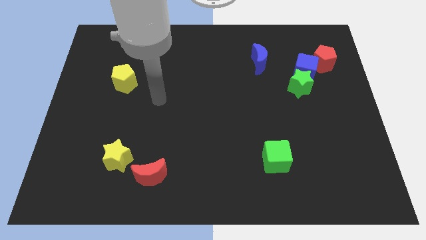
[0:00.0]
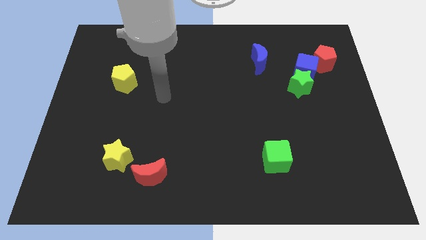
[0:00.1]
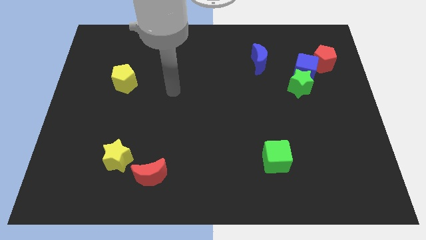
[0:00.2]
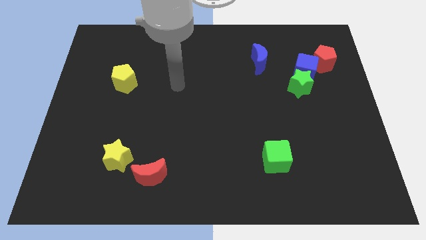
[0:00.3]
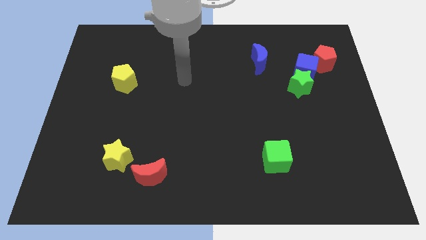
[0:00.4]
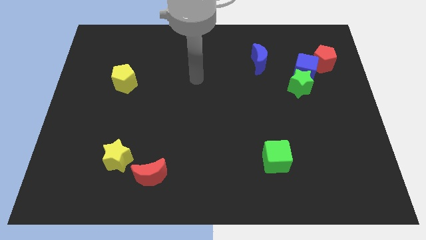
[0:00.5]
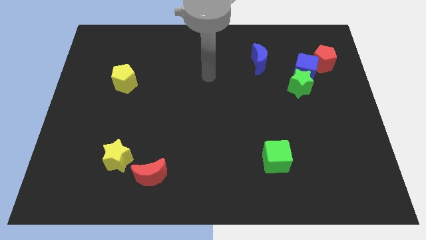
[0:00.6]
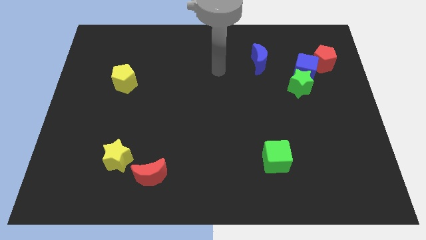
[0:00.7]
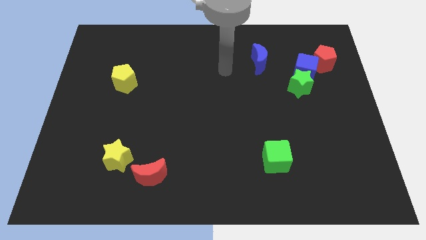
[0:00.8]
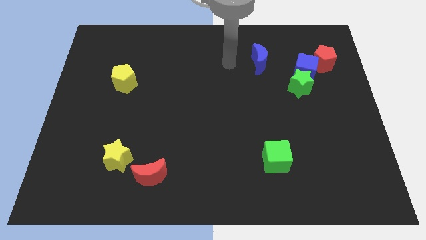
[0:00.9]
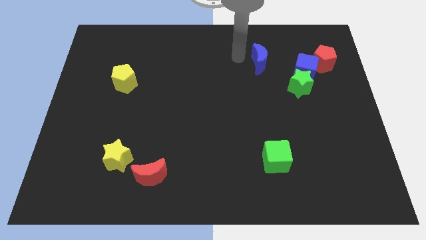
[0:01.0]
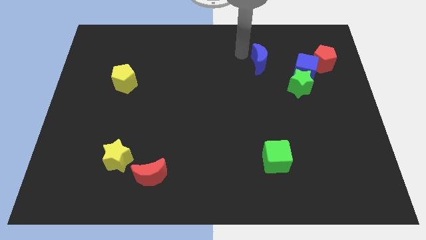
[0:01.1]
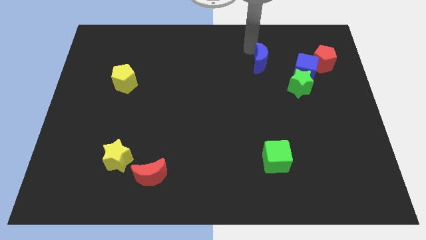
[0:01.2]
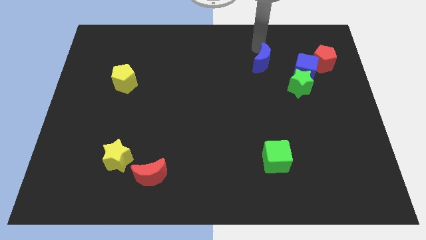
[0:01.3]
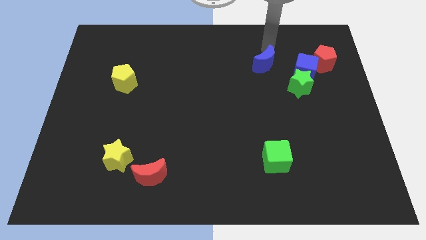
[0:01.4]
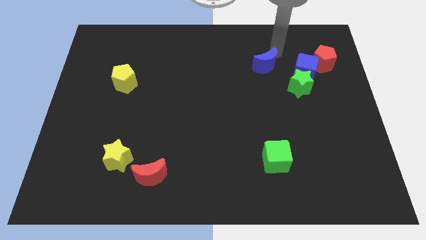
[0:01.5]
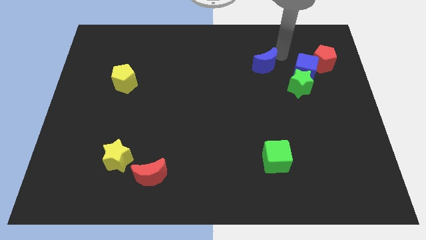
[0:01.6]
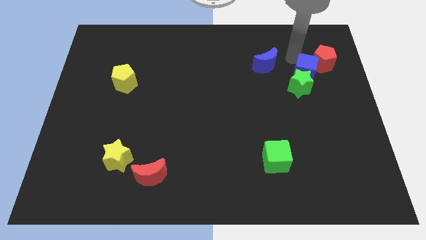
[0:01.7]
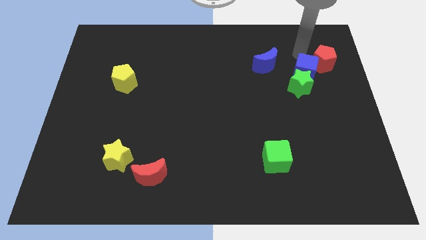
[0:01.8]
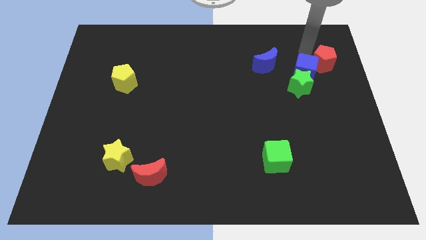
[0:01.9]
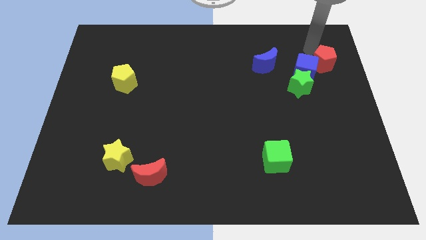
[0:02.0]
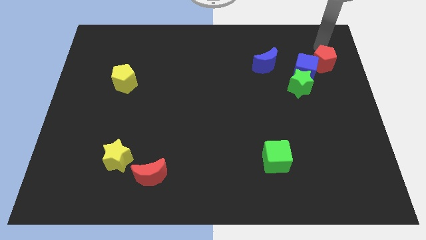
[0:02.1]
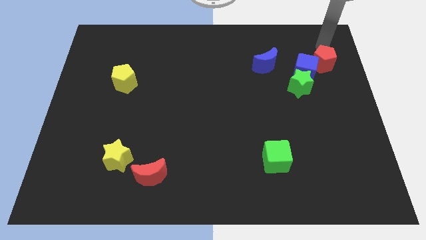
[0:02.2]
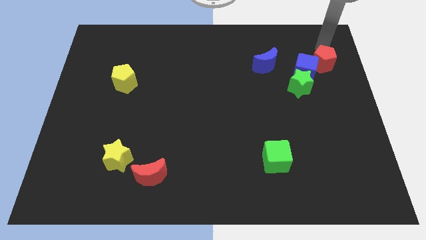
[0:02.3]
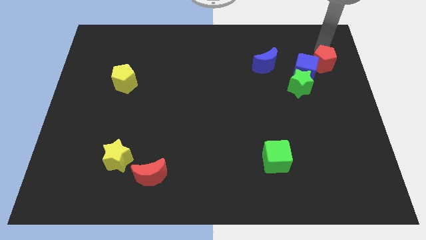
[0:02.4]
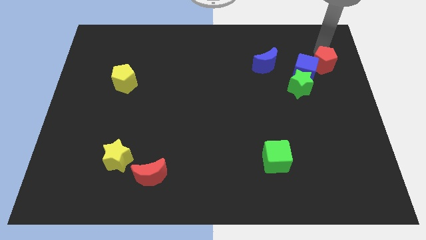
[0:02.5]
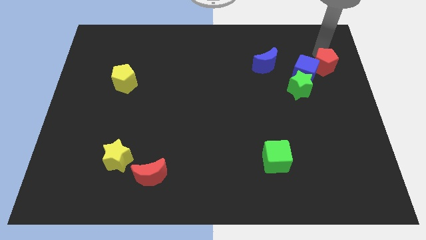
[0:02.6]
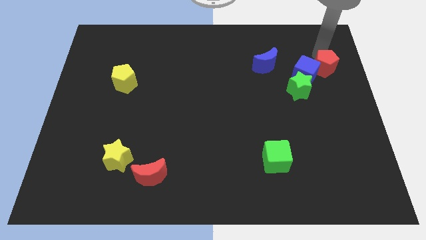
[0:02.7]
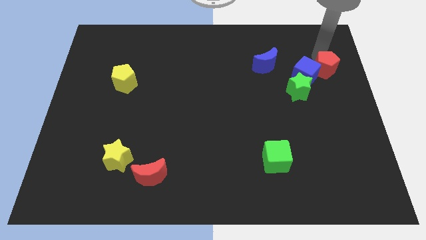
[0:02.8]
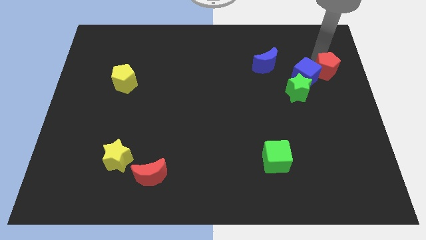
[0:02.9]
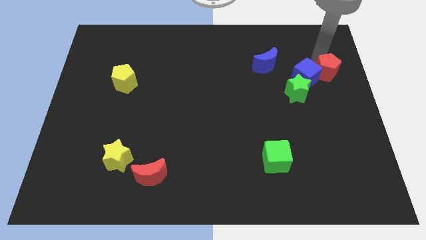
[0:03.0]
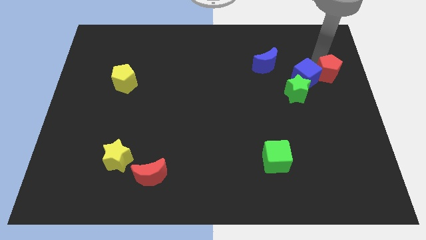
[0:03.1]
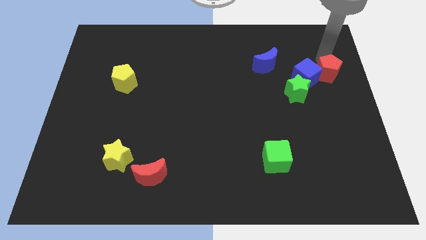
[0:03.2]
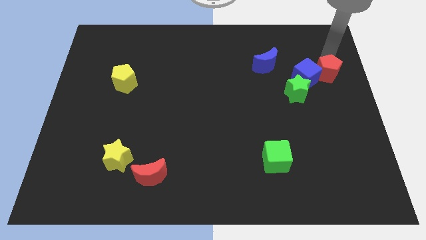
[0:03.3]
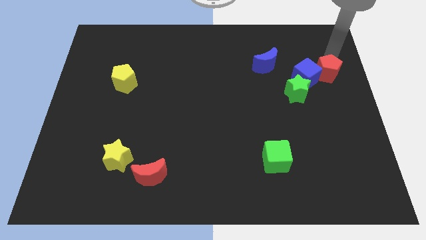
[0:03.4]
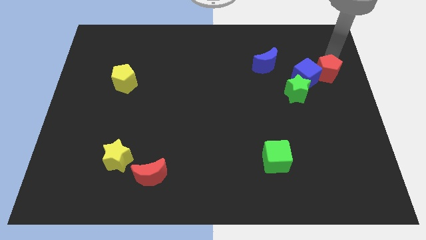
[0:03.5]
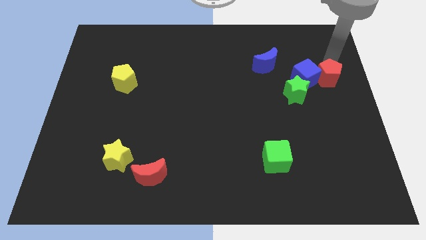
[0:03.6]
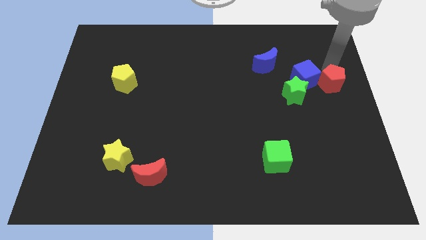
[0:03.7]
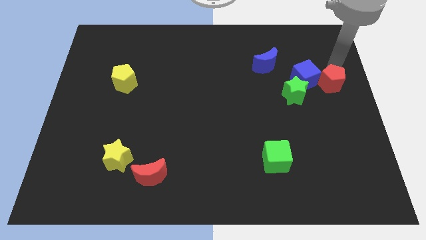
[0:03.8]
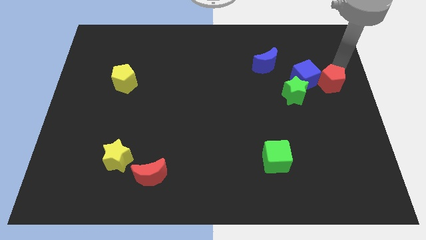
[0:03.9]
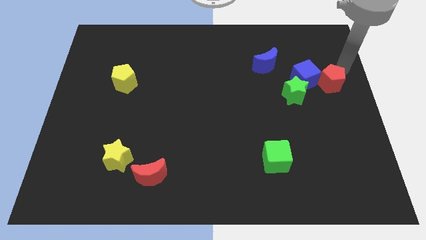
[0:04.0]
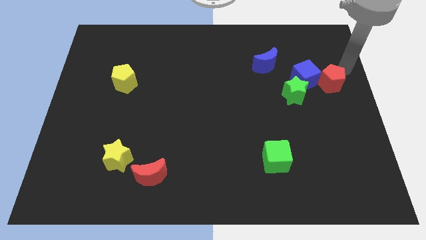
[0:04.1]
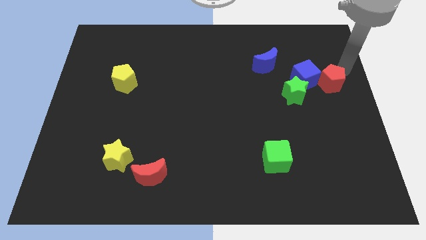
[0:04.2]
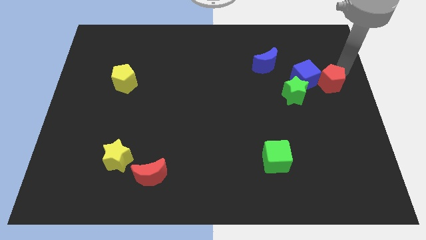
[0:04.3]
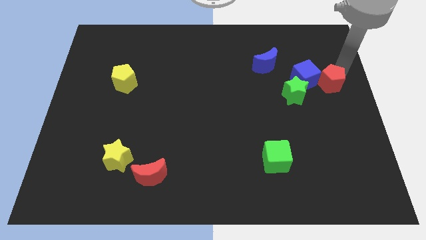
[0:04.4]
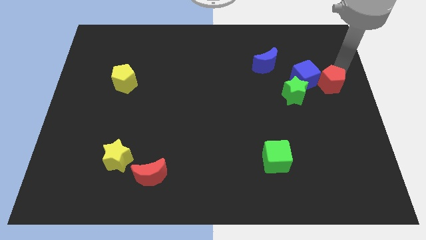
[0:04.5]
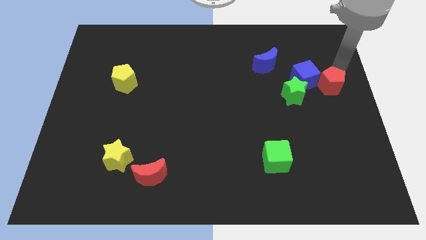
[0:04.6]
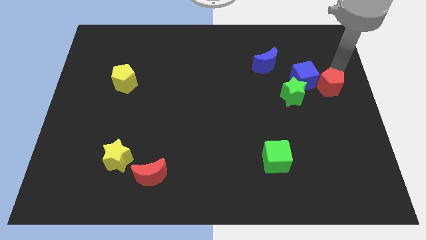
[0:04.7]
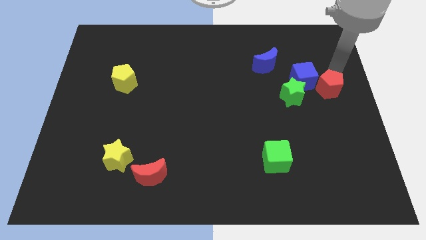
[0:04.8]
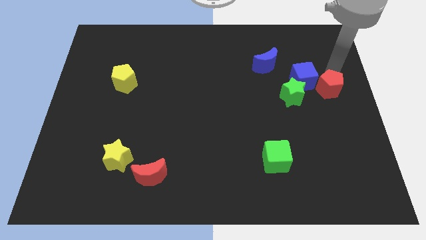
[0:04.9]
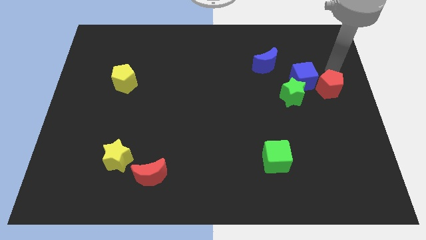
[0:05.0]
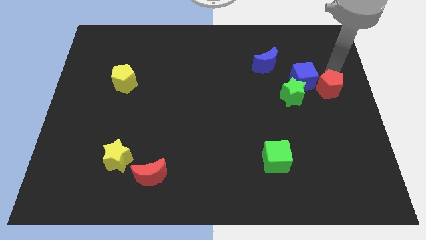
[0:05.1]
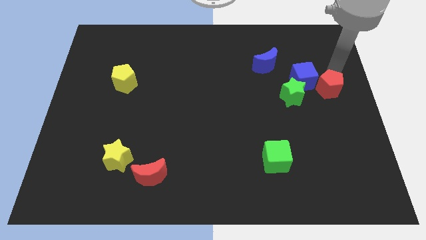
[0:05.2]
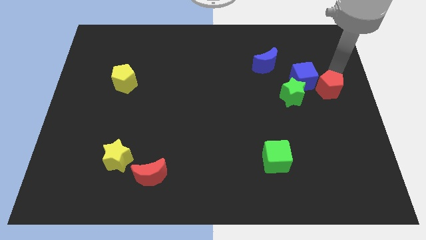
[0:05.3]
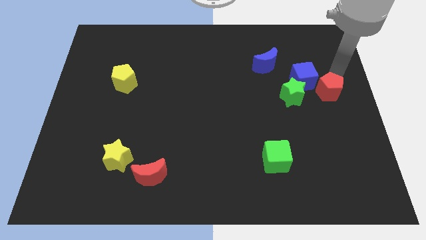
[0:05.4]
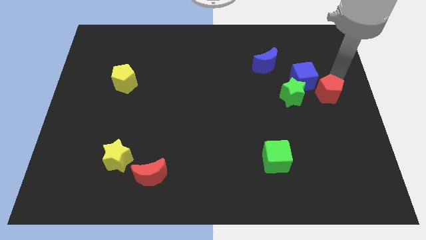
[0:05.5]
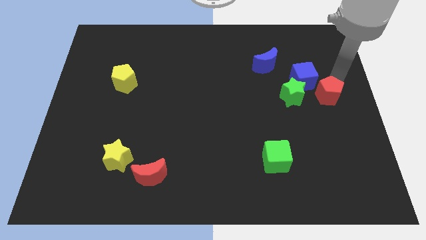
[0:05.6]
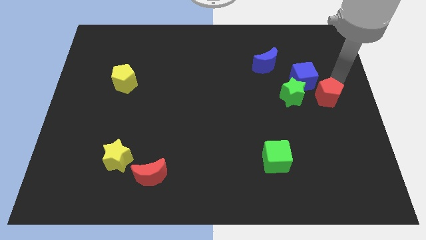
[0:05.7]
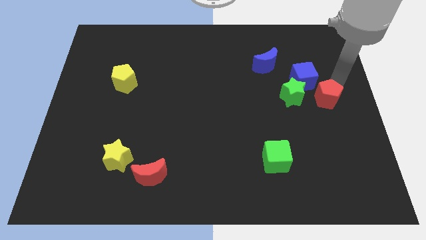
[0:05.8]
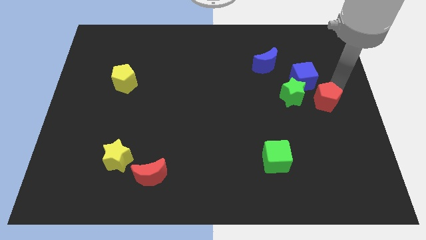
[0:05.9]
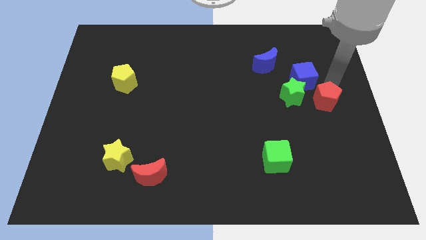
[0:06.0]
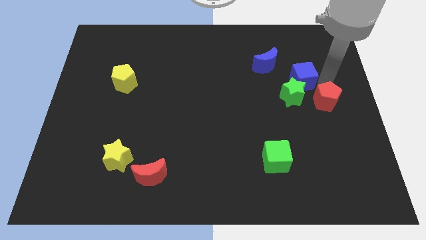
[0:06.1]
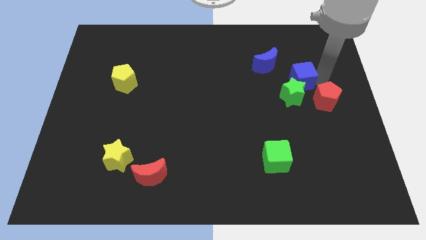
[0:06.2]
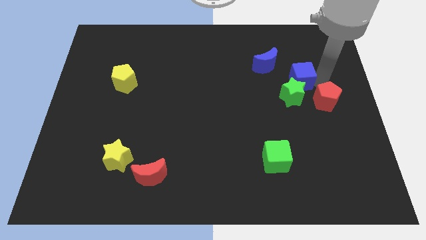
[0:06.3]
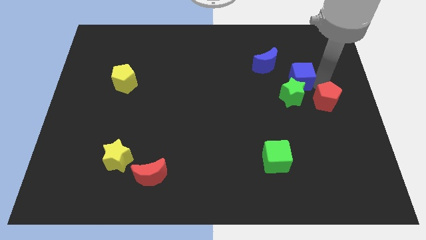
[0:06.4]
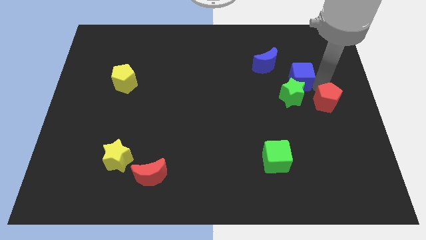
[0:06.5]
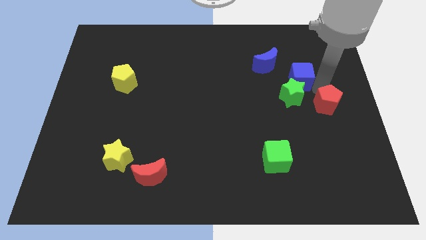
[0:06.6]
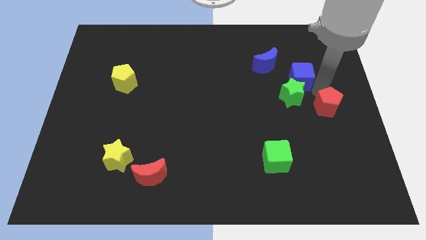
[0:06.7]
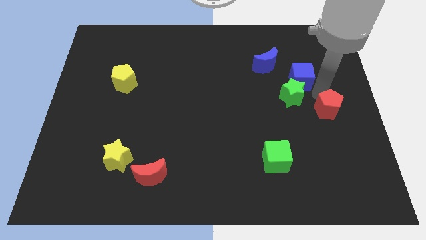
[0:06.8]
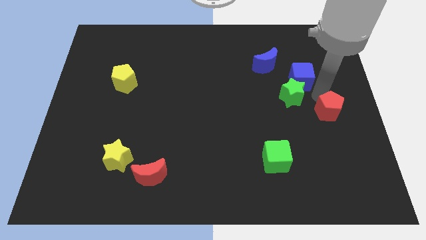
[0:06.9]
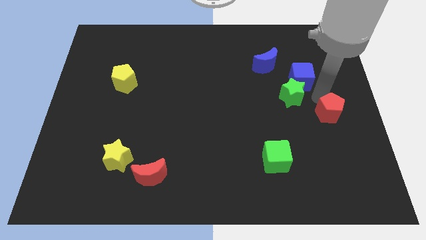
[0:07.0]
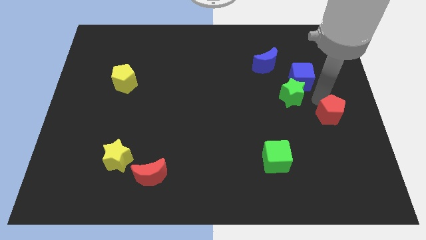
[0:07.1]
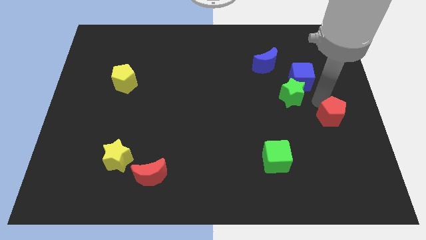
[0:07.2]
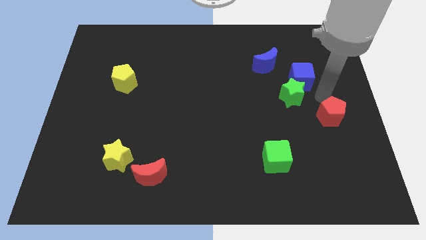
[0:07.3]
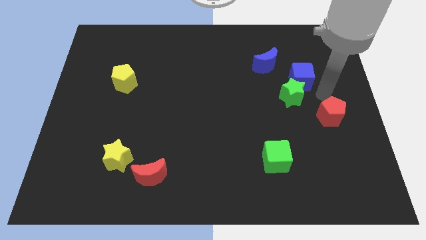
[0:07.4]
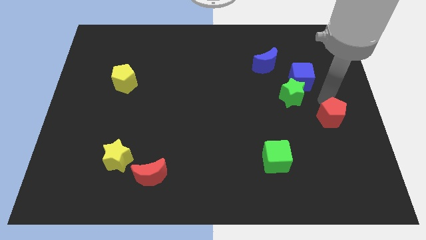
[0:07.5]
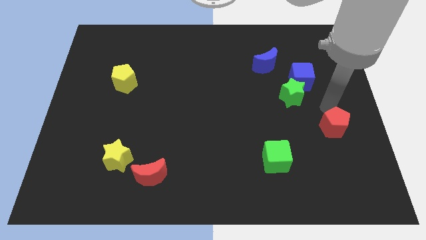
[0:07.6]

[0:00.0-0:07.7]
move the red pentagon downwards
